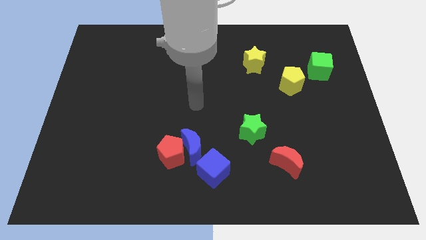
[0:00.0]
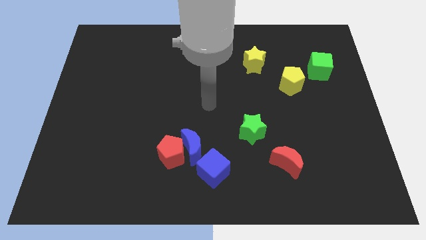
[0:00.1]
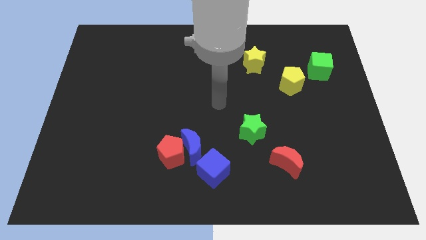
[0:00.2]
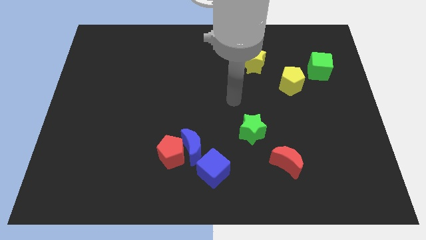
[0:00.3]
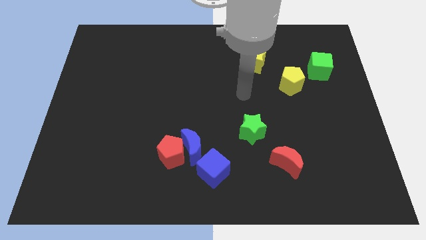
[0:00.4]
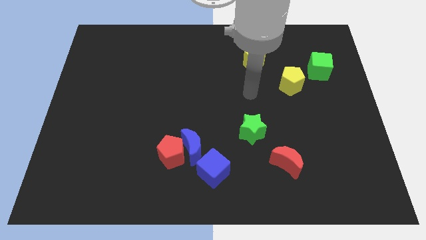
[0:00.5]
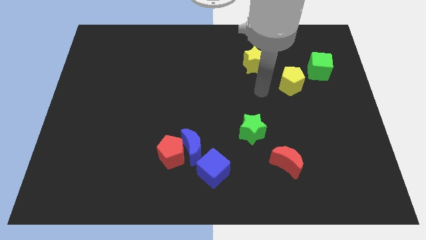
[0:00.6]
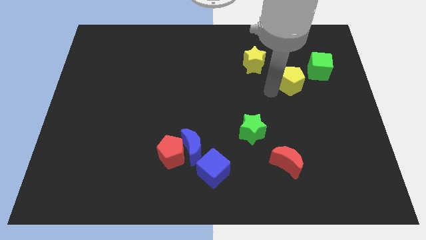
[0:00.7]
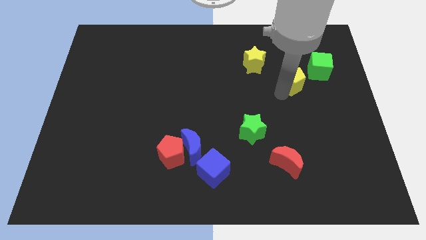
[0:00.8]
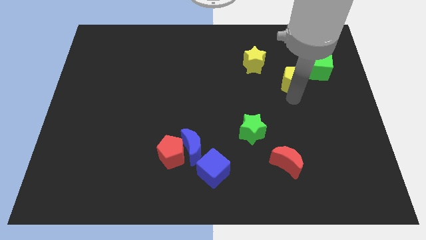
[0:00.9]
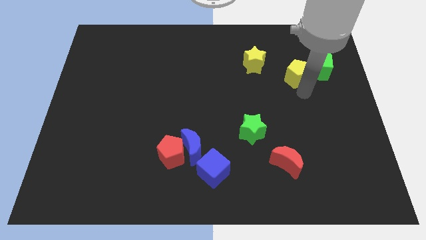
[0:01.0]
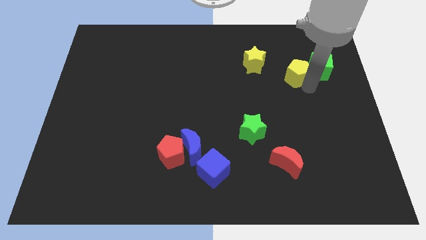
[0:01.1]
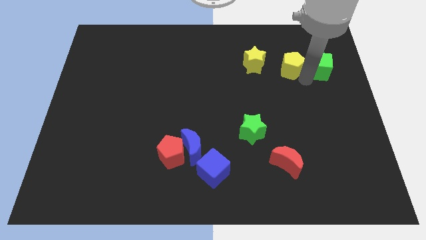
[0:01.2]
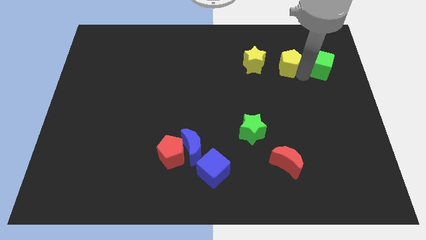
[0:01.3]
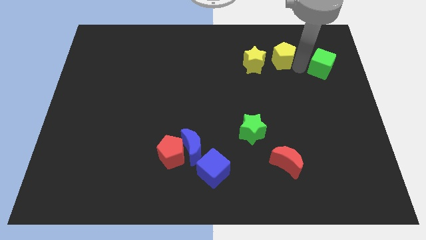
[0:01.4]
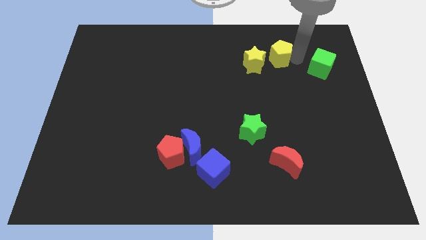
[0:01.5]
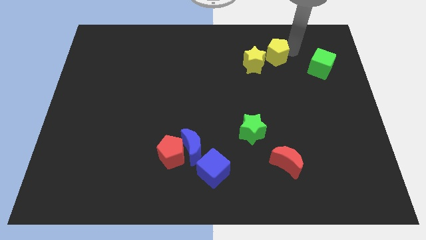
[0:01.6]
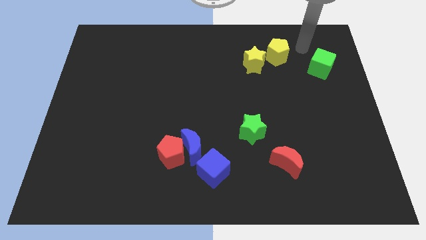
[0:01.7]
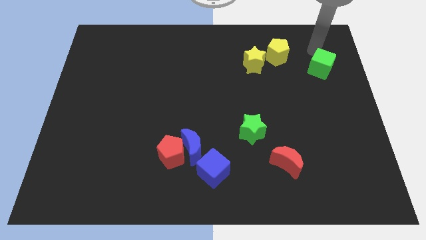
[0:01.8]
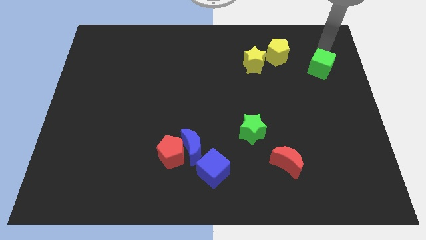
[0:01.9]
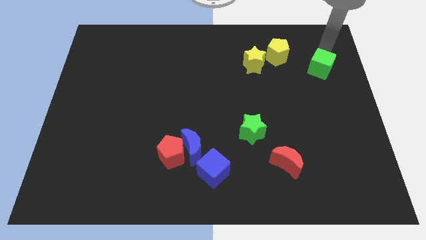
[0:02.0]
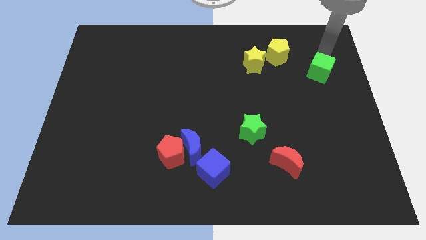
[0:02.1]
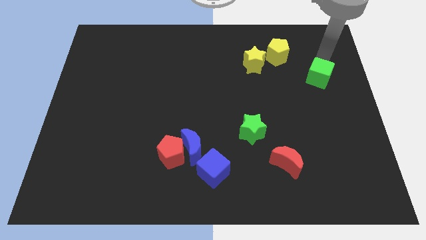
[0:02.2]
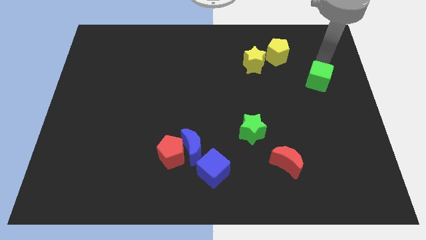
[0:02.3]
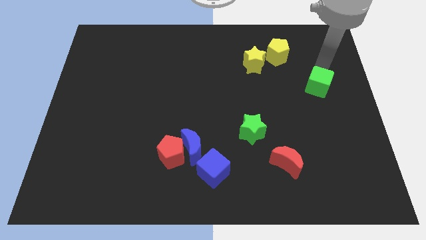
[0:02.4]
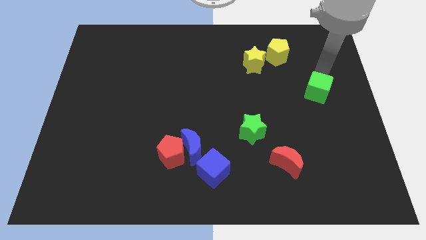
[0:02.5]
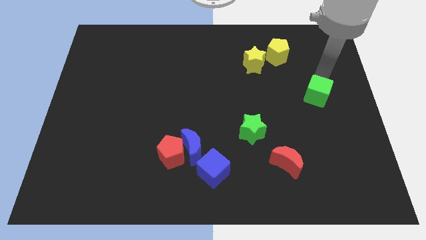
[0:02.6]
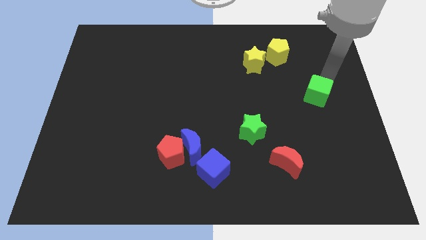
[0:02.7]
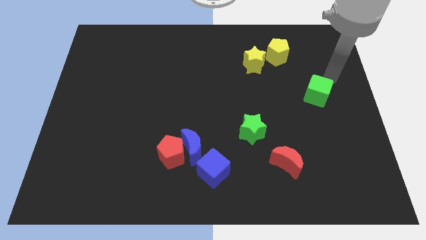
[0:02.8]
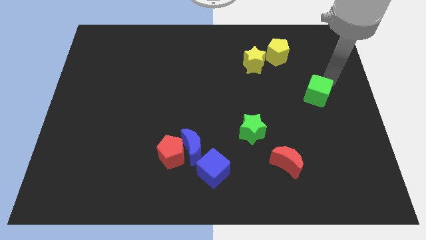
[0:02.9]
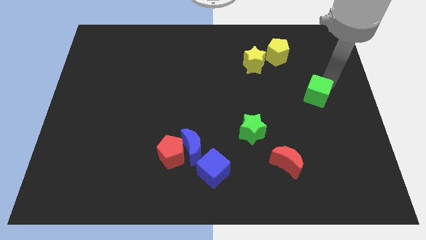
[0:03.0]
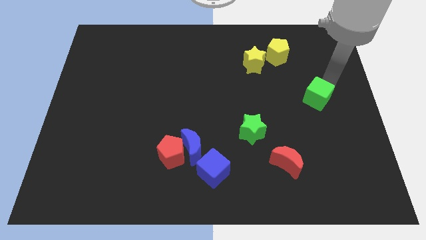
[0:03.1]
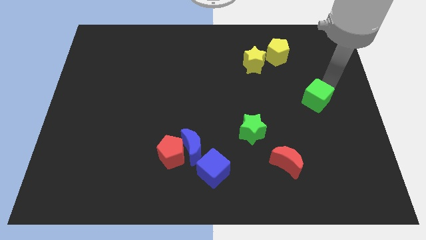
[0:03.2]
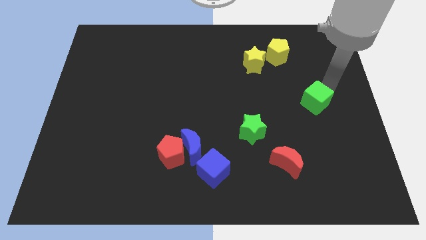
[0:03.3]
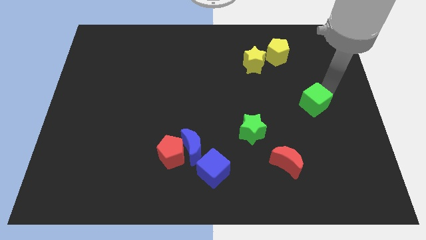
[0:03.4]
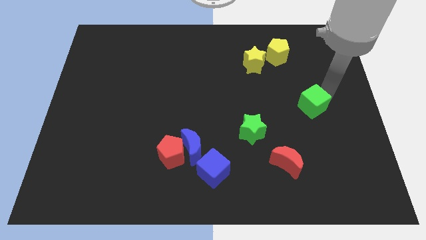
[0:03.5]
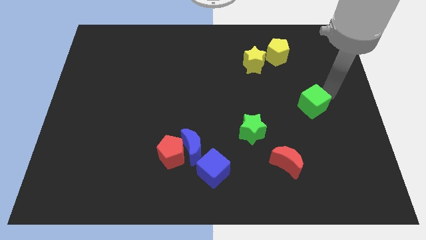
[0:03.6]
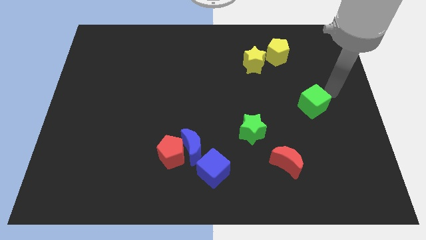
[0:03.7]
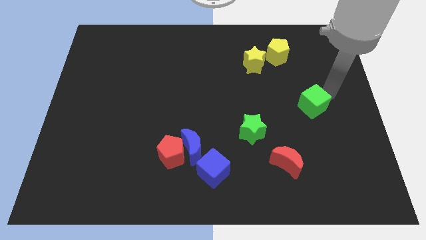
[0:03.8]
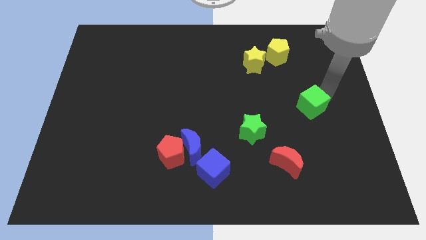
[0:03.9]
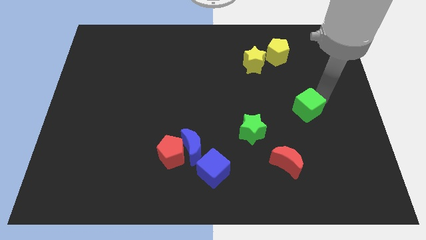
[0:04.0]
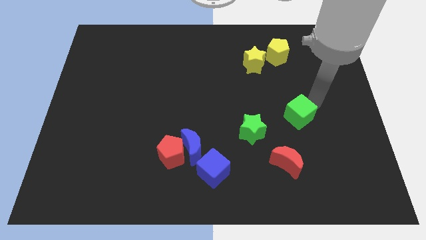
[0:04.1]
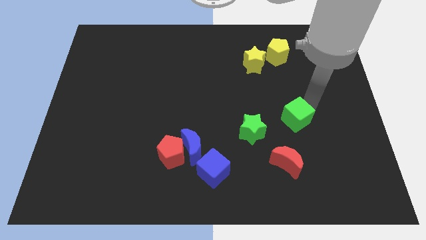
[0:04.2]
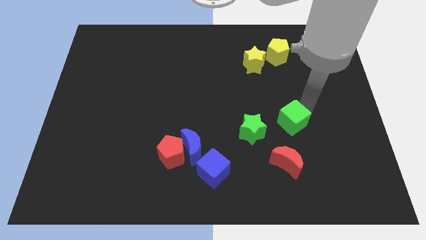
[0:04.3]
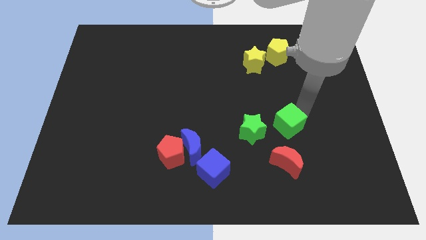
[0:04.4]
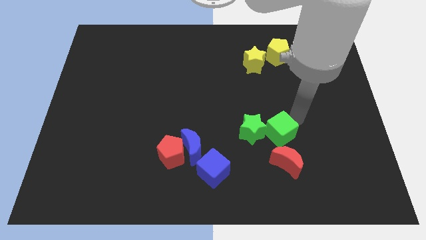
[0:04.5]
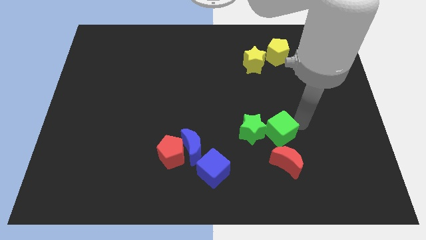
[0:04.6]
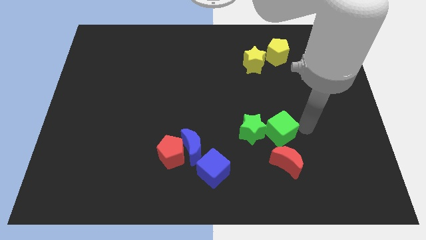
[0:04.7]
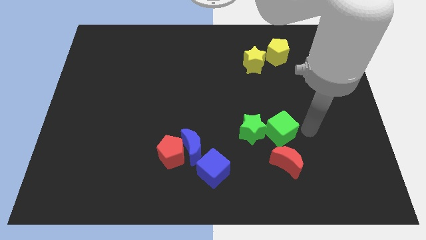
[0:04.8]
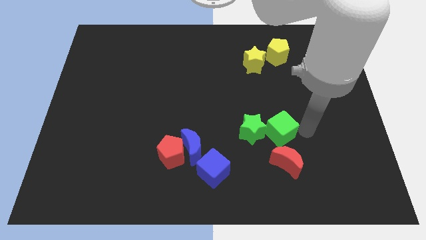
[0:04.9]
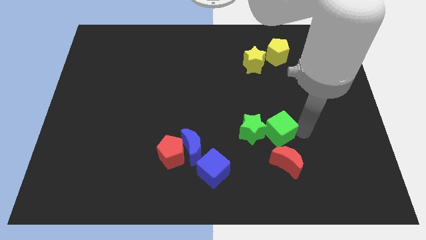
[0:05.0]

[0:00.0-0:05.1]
push the green cube next to the green star

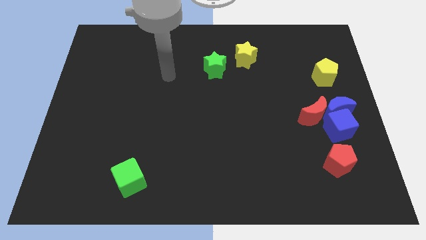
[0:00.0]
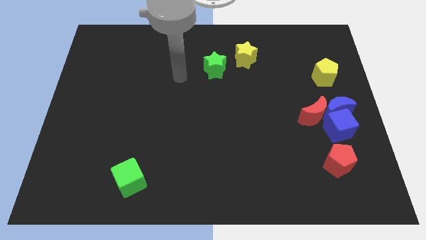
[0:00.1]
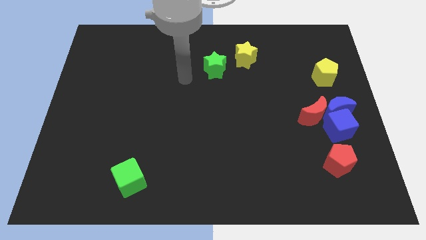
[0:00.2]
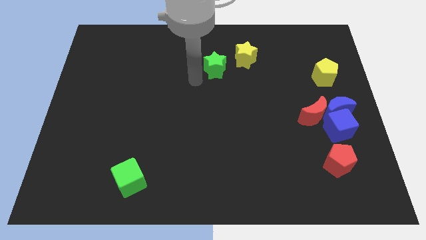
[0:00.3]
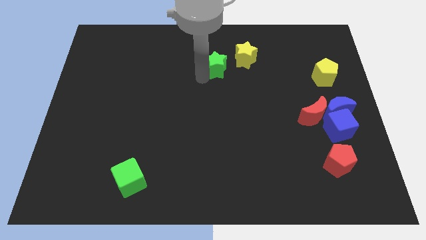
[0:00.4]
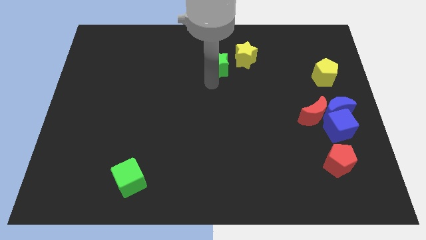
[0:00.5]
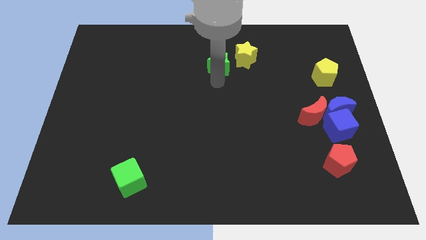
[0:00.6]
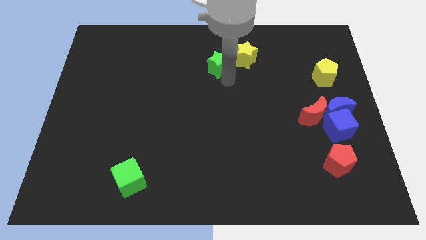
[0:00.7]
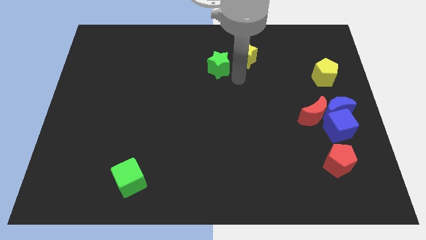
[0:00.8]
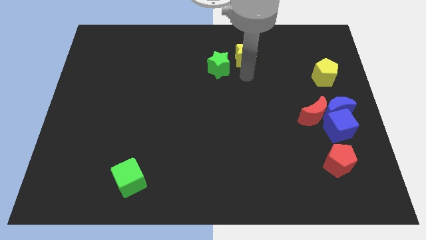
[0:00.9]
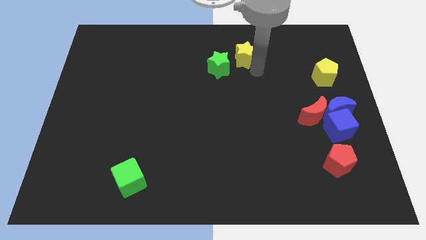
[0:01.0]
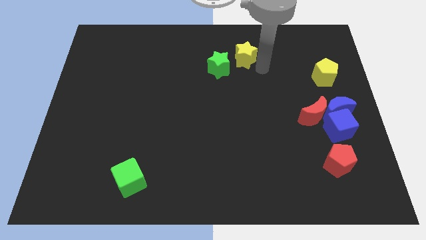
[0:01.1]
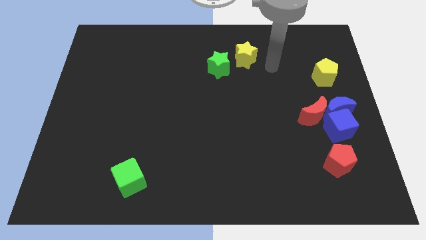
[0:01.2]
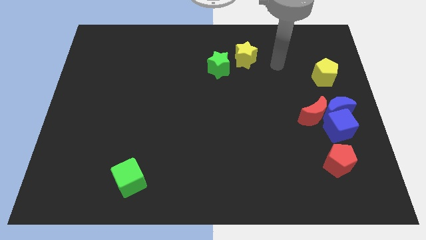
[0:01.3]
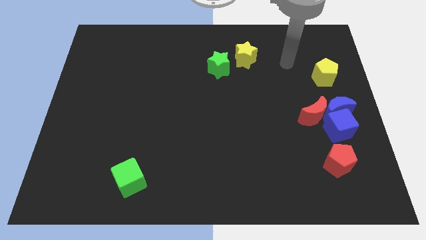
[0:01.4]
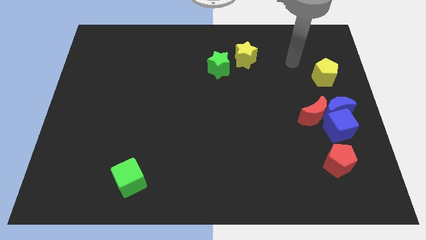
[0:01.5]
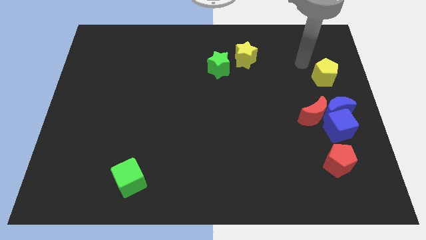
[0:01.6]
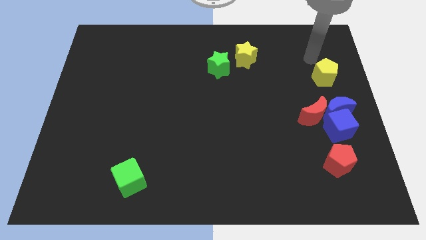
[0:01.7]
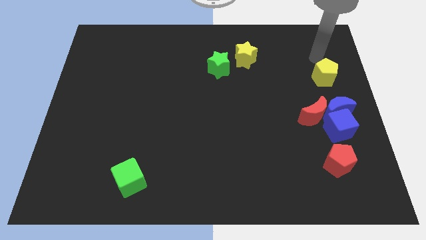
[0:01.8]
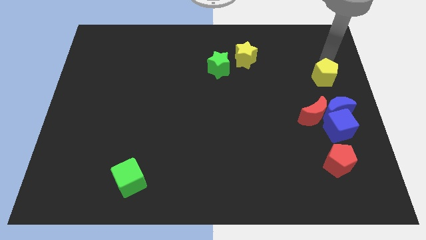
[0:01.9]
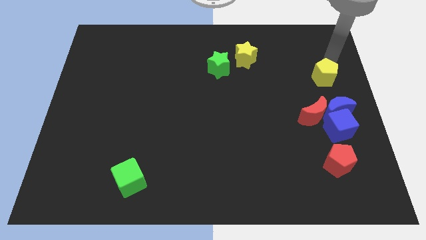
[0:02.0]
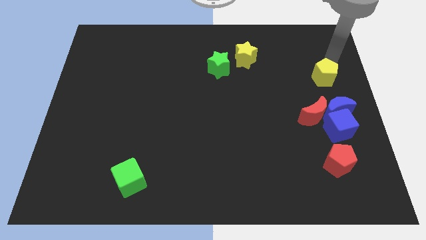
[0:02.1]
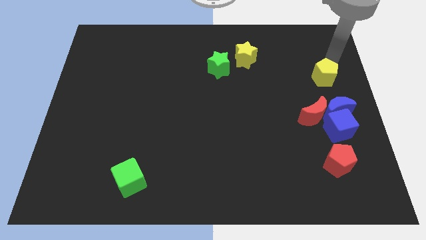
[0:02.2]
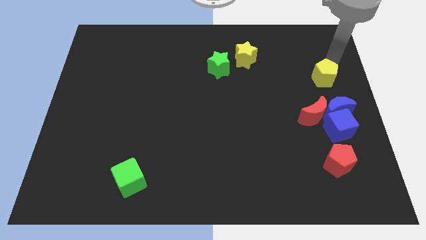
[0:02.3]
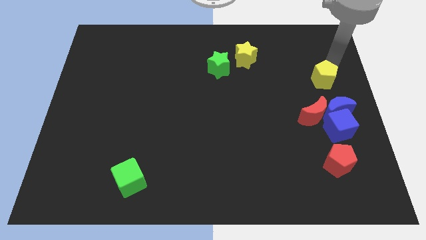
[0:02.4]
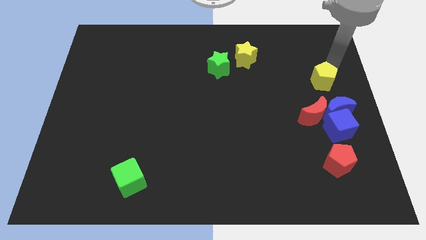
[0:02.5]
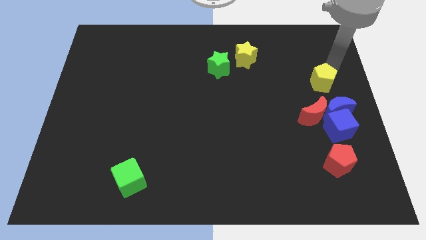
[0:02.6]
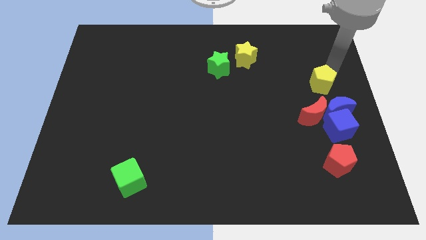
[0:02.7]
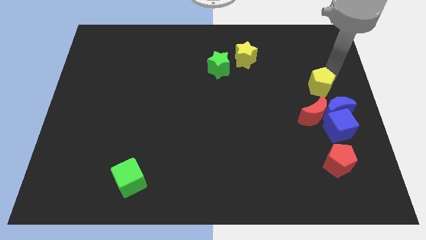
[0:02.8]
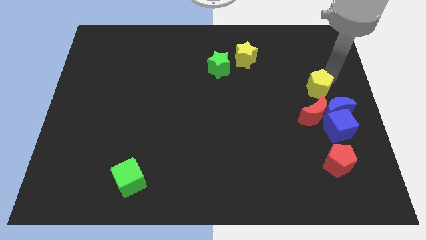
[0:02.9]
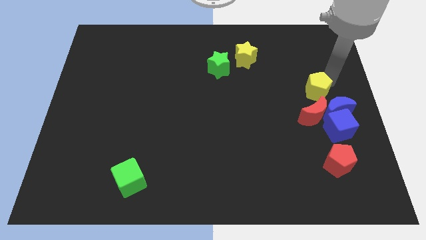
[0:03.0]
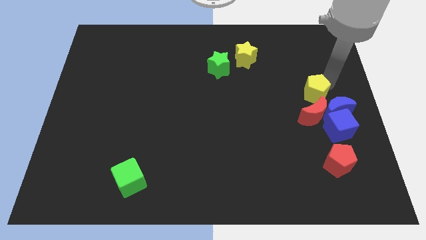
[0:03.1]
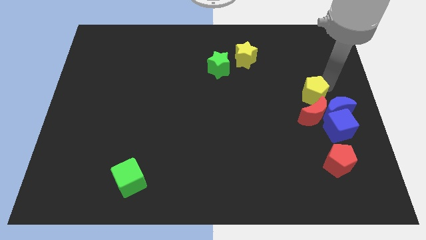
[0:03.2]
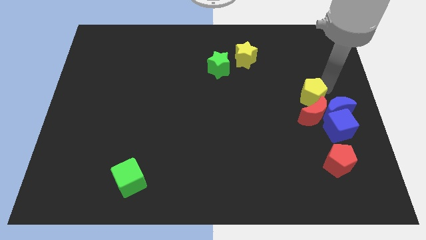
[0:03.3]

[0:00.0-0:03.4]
move the yellow pentagon to the red moon
